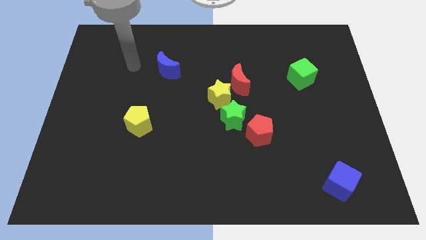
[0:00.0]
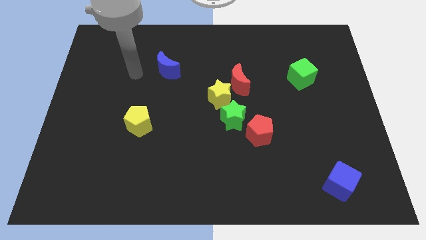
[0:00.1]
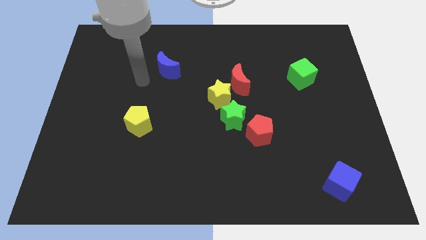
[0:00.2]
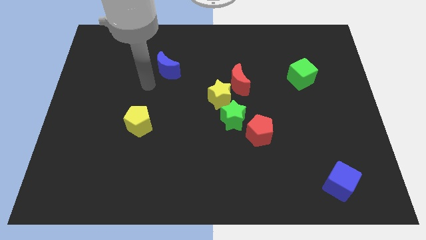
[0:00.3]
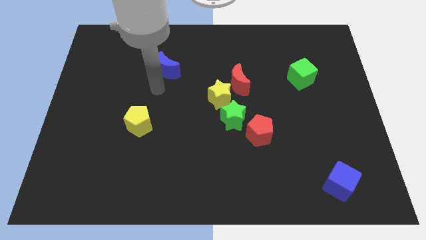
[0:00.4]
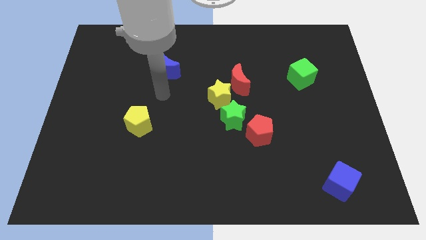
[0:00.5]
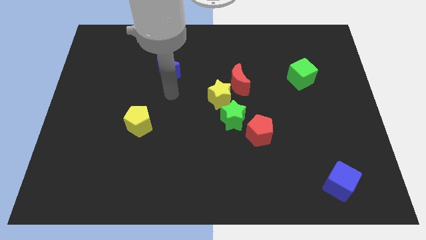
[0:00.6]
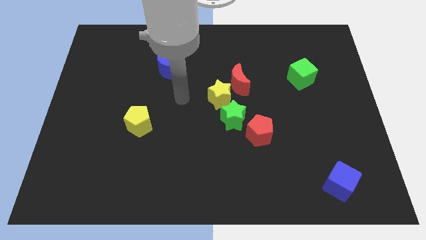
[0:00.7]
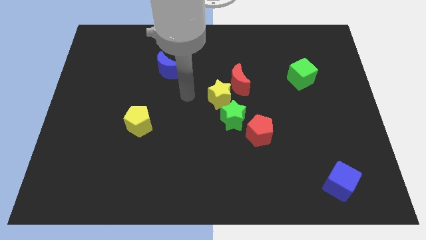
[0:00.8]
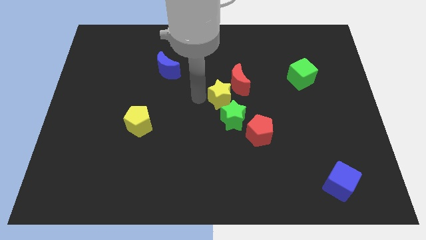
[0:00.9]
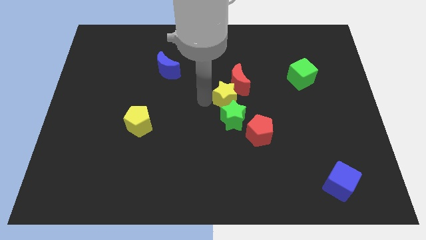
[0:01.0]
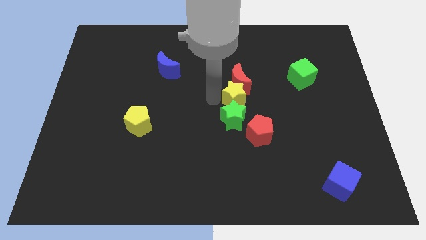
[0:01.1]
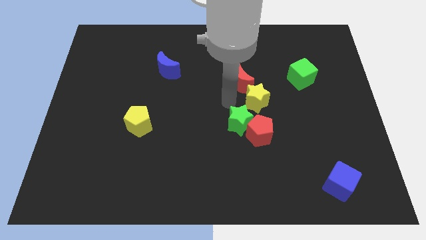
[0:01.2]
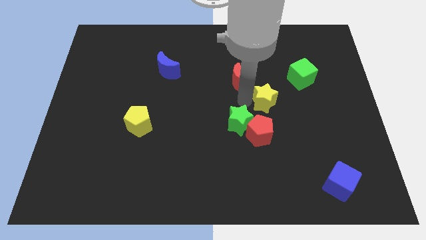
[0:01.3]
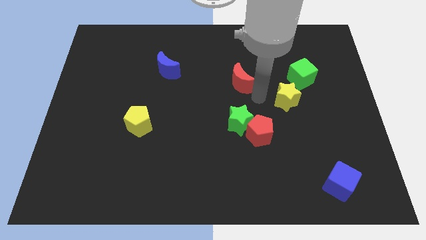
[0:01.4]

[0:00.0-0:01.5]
separate the red moon from the yellow star

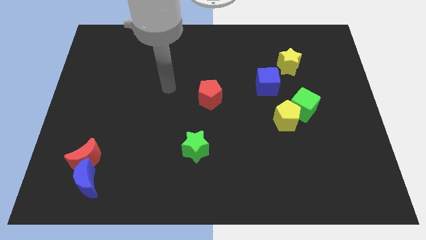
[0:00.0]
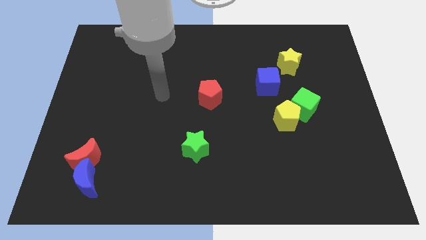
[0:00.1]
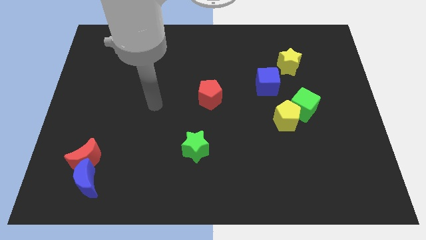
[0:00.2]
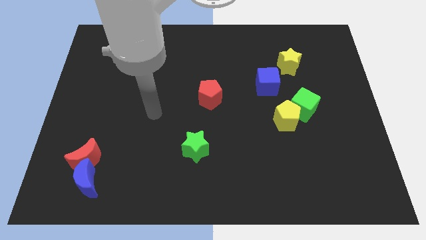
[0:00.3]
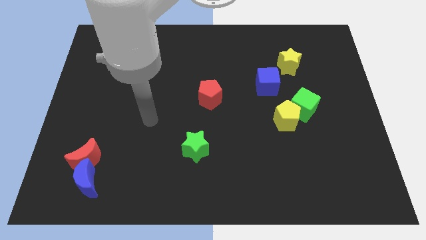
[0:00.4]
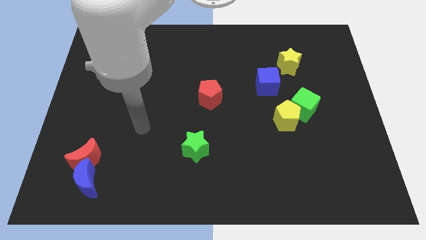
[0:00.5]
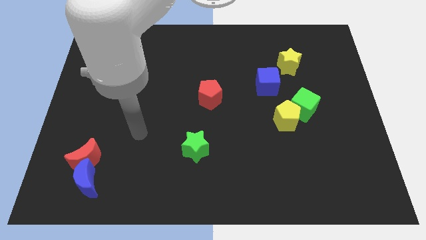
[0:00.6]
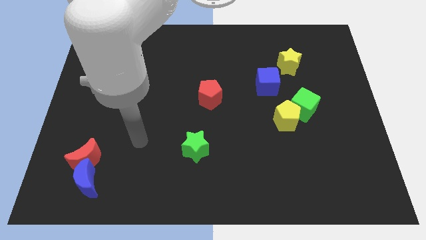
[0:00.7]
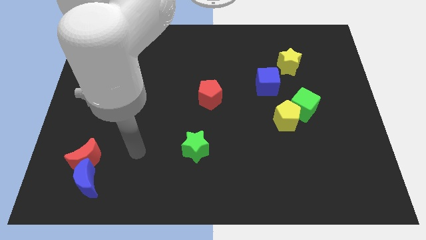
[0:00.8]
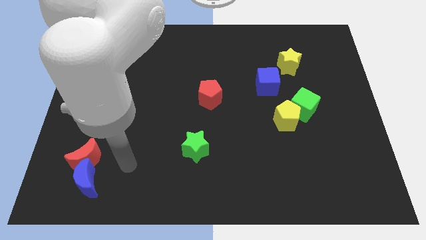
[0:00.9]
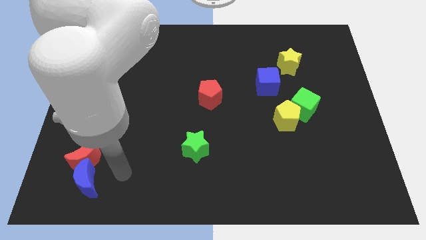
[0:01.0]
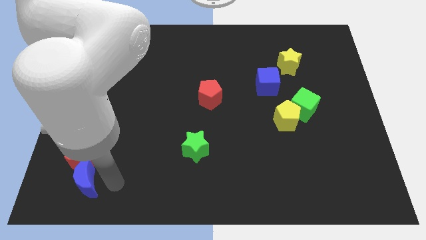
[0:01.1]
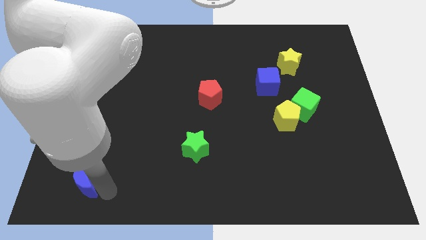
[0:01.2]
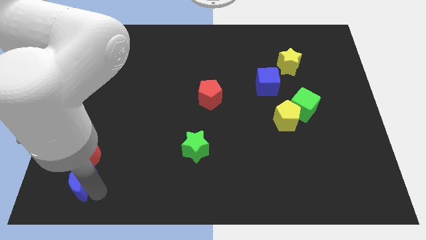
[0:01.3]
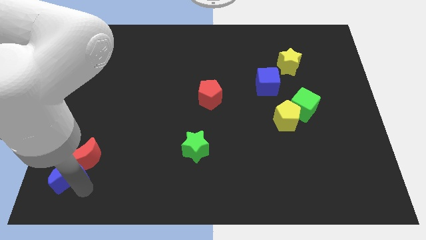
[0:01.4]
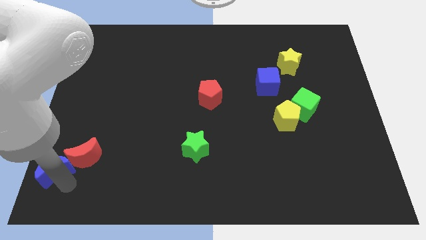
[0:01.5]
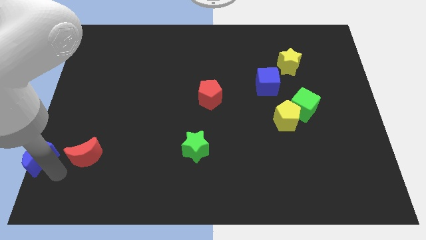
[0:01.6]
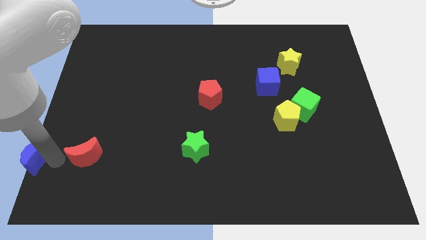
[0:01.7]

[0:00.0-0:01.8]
pull the red moon apart from the blue moon

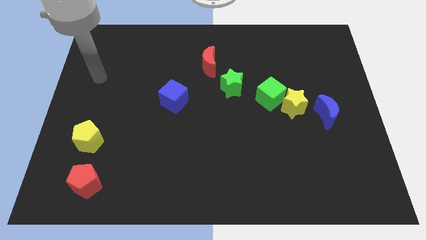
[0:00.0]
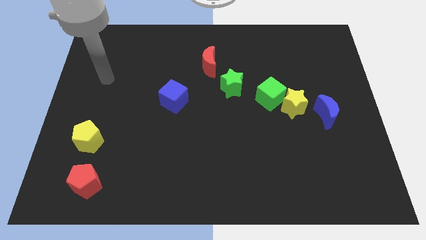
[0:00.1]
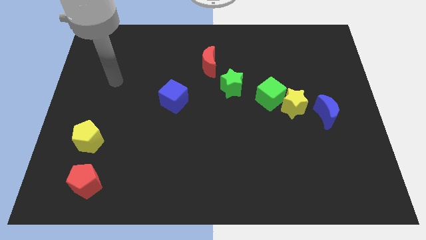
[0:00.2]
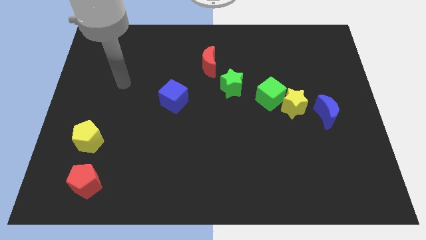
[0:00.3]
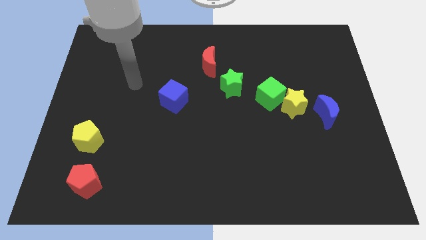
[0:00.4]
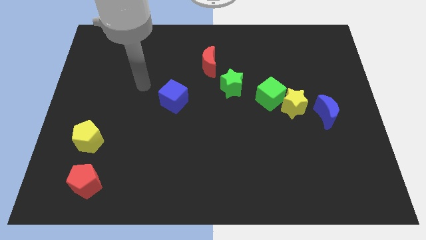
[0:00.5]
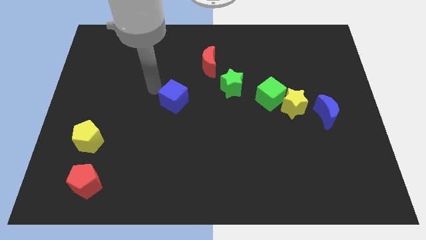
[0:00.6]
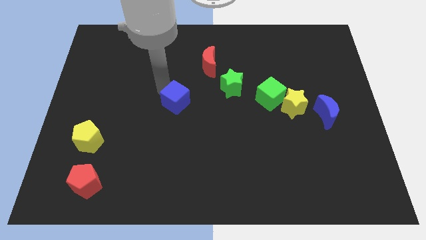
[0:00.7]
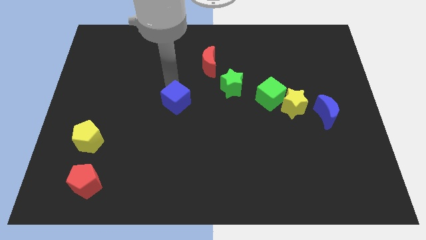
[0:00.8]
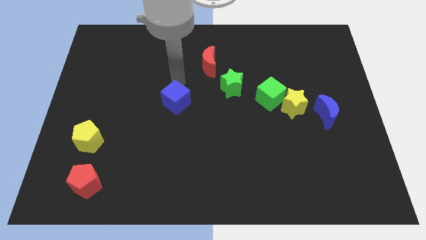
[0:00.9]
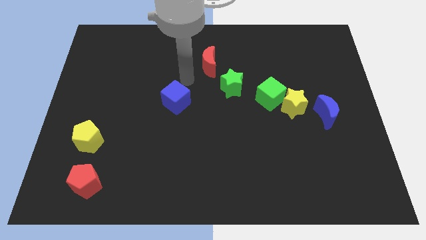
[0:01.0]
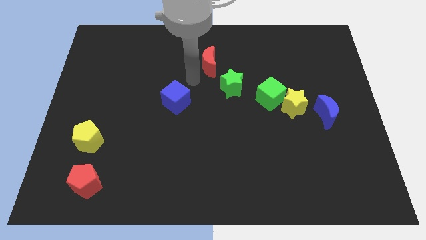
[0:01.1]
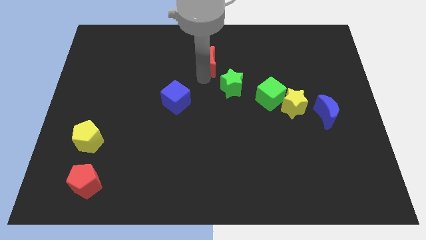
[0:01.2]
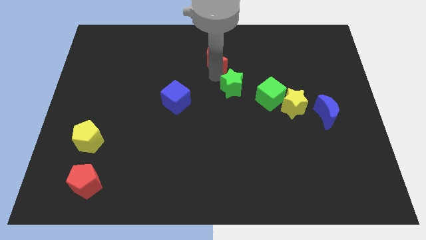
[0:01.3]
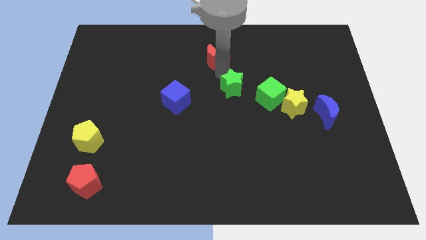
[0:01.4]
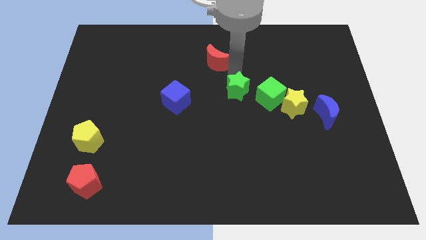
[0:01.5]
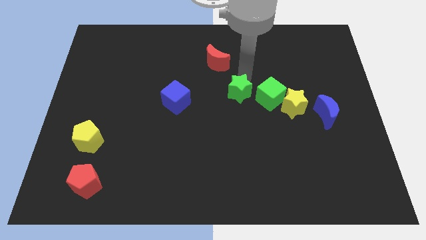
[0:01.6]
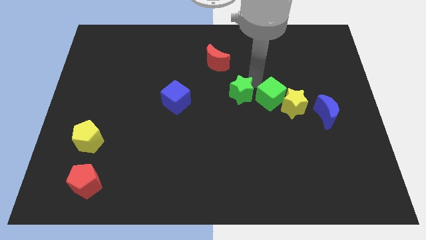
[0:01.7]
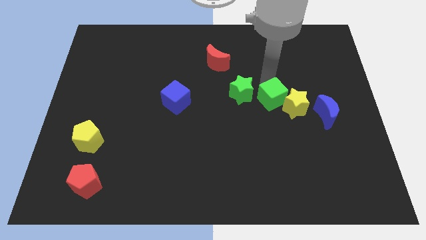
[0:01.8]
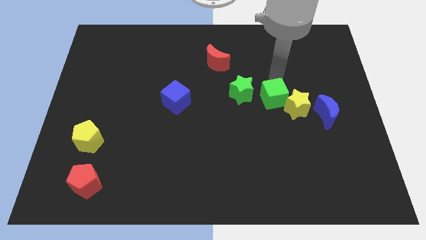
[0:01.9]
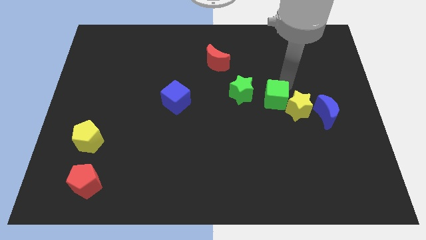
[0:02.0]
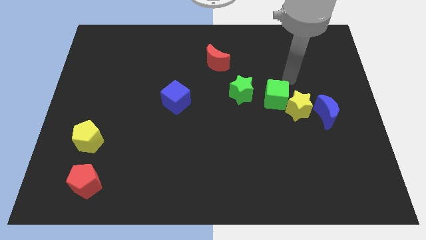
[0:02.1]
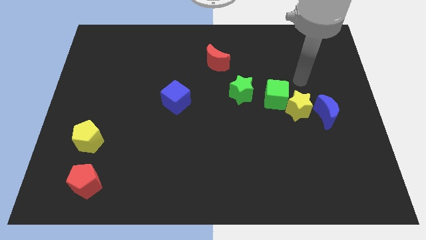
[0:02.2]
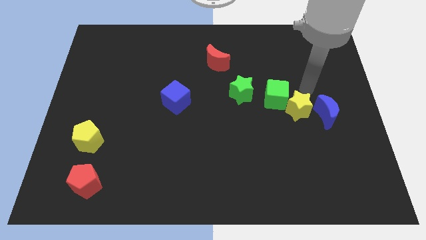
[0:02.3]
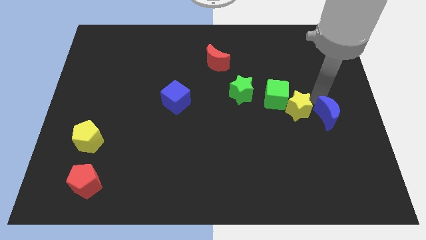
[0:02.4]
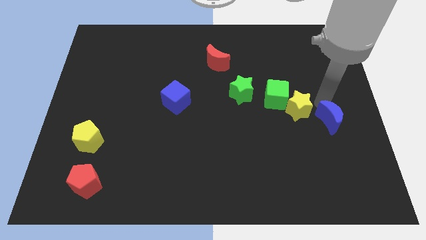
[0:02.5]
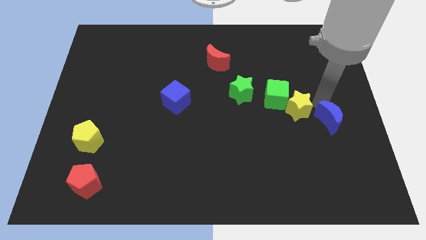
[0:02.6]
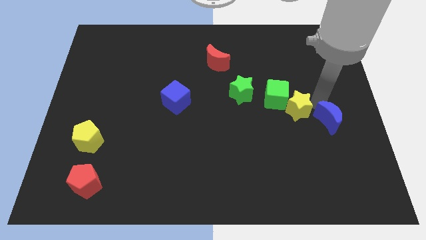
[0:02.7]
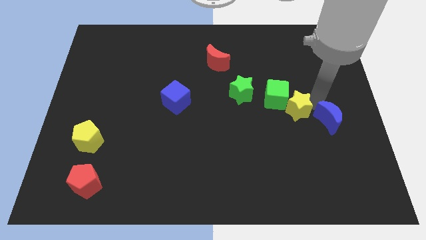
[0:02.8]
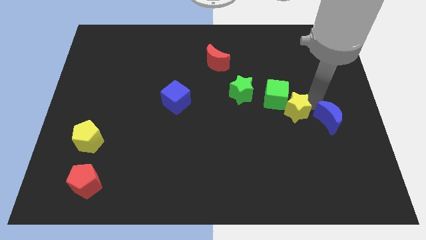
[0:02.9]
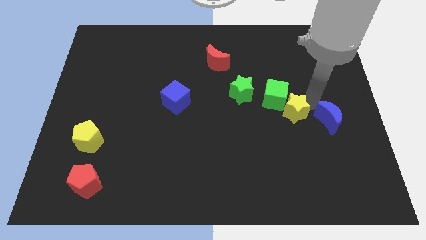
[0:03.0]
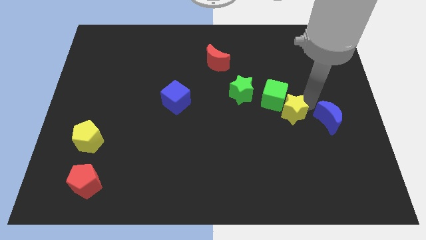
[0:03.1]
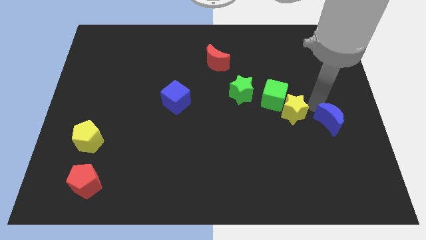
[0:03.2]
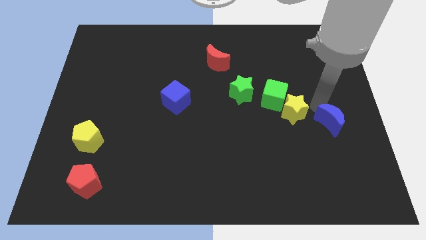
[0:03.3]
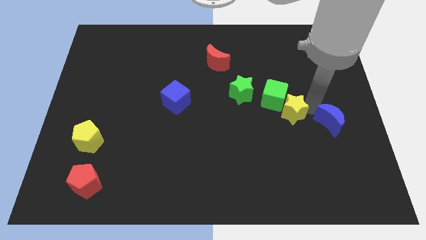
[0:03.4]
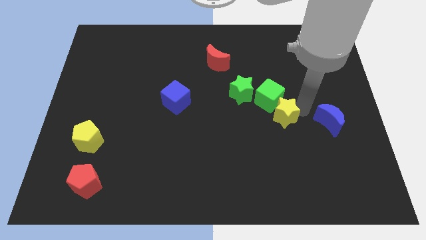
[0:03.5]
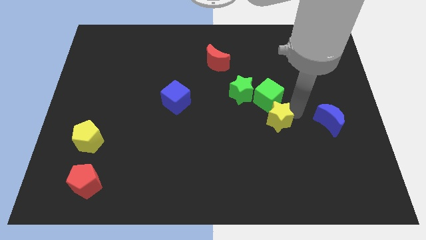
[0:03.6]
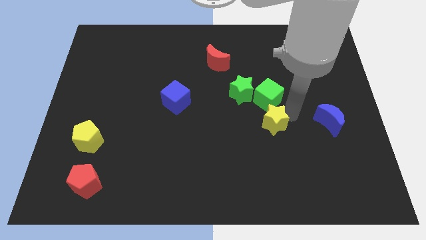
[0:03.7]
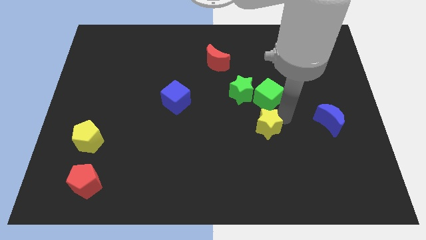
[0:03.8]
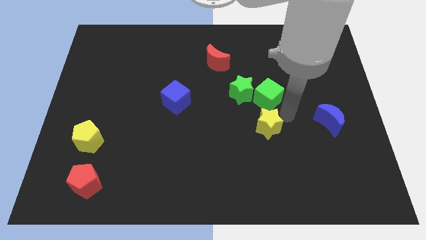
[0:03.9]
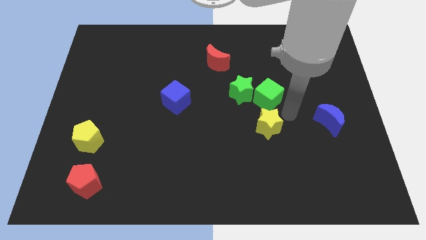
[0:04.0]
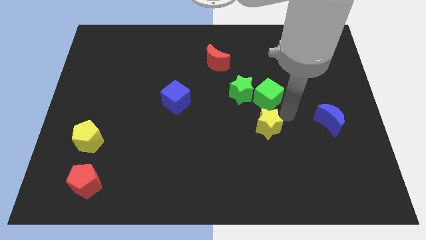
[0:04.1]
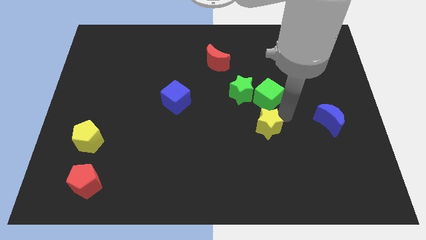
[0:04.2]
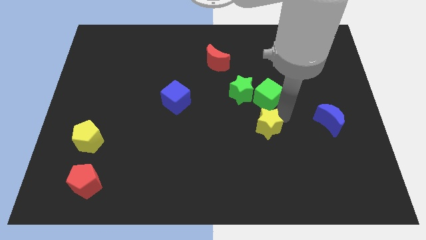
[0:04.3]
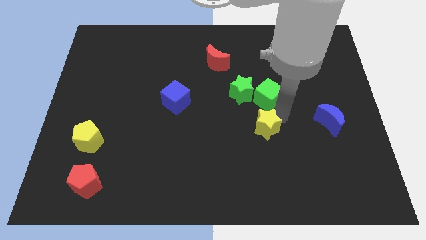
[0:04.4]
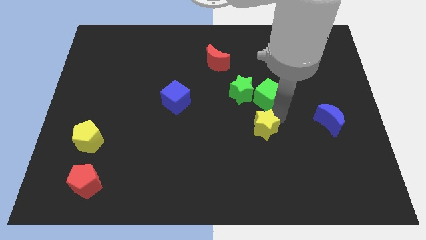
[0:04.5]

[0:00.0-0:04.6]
move the yellow star away from the green cube and blue moon

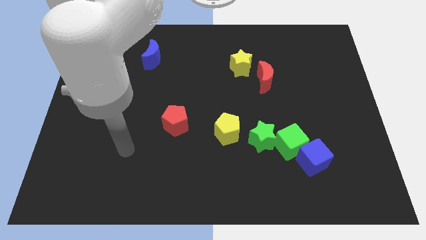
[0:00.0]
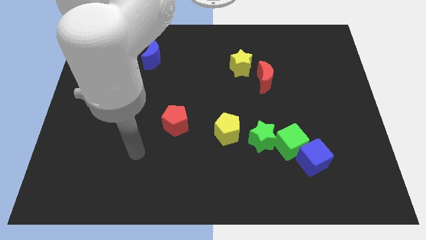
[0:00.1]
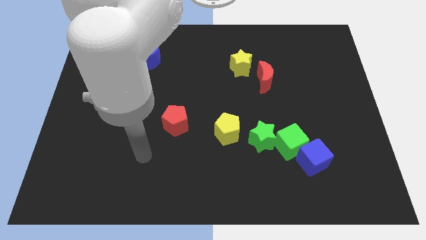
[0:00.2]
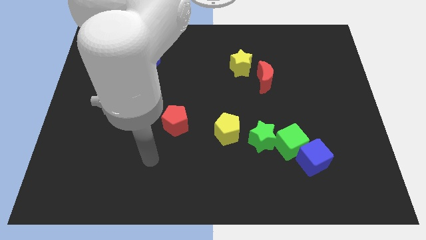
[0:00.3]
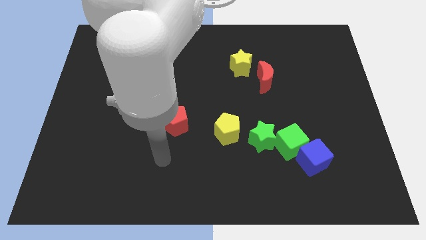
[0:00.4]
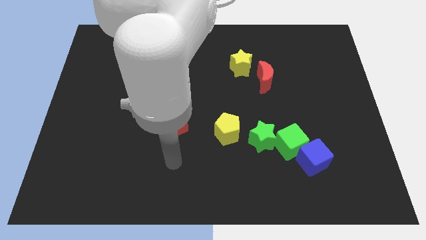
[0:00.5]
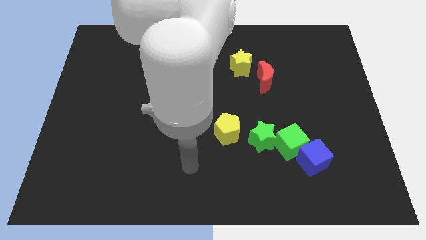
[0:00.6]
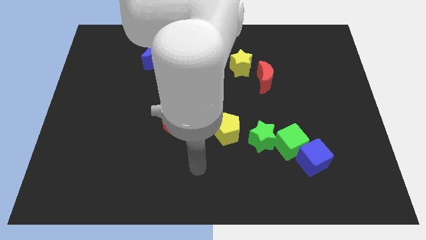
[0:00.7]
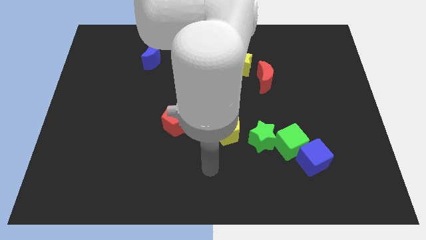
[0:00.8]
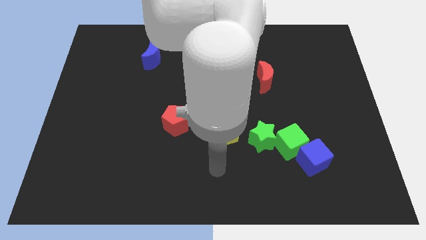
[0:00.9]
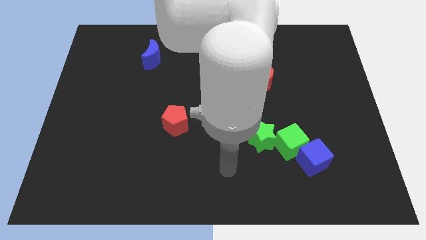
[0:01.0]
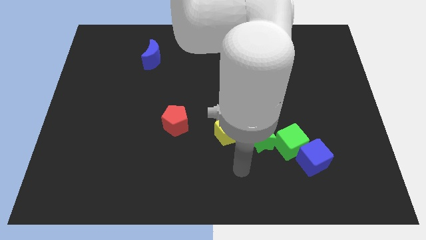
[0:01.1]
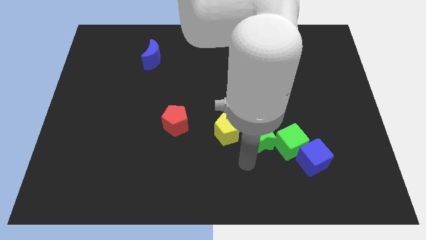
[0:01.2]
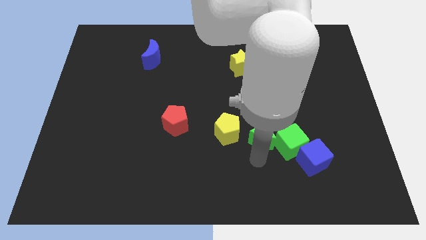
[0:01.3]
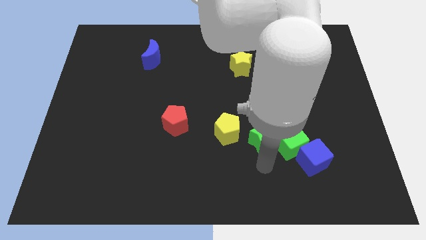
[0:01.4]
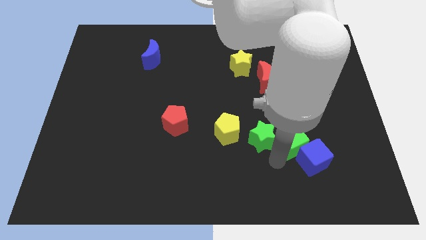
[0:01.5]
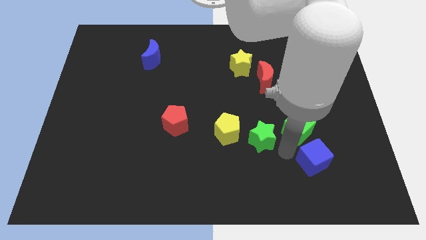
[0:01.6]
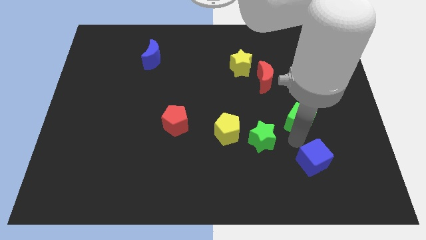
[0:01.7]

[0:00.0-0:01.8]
separate the blue cube from the green cube
